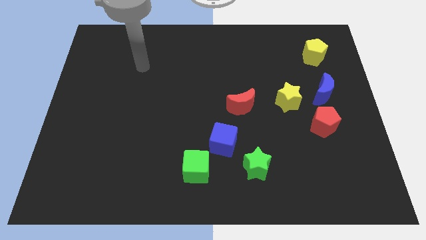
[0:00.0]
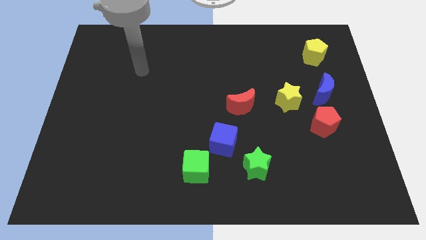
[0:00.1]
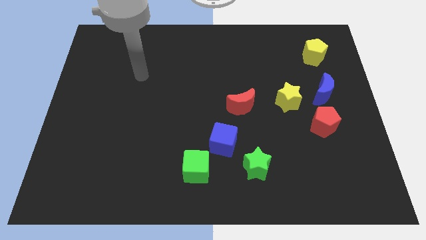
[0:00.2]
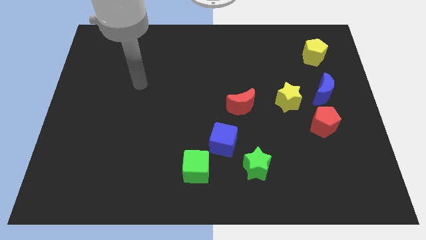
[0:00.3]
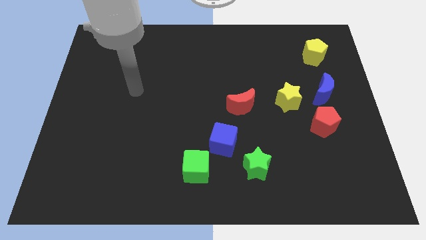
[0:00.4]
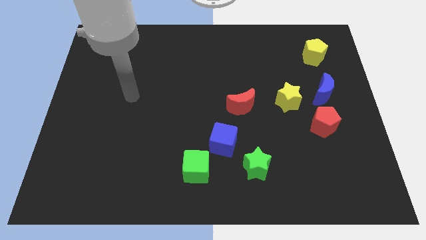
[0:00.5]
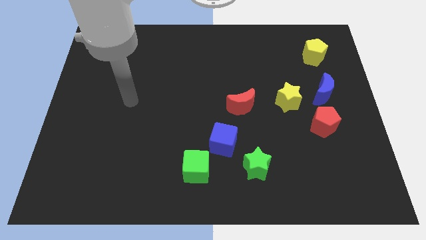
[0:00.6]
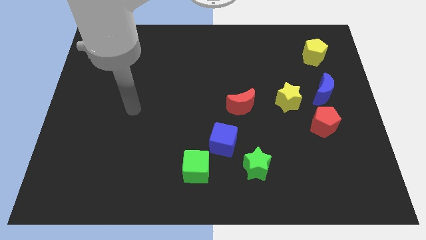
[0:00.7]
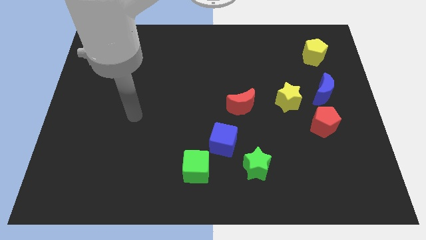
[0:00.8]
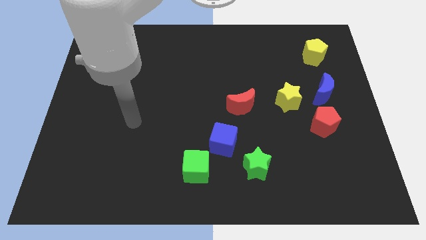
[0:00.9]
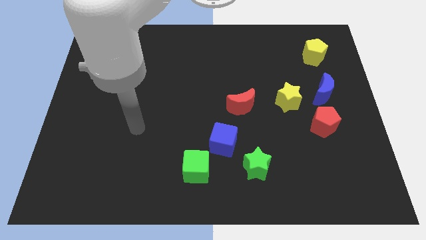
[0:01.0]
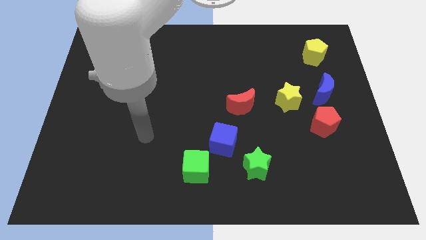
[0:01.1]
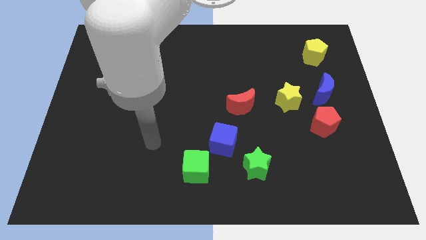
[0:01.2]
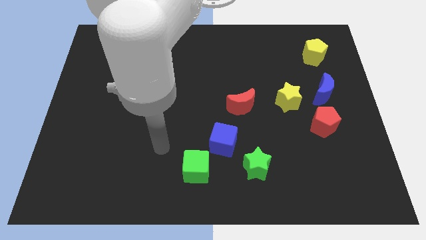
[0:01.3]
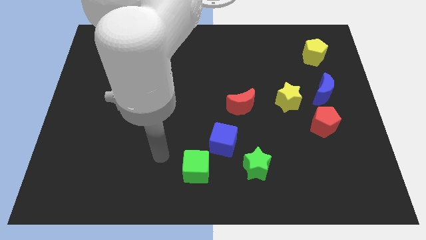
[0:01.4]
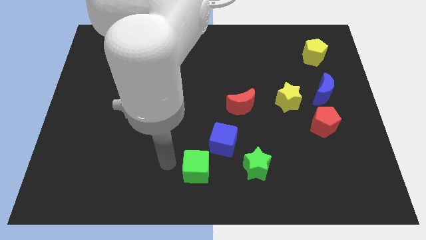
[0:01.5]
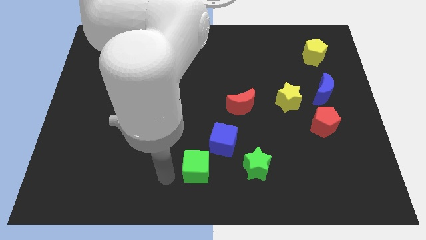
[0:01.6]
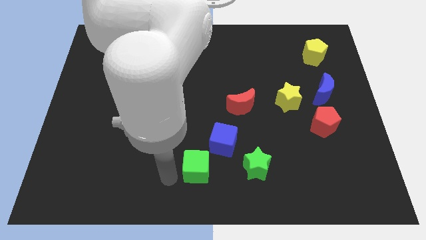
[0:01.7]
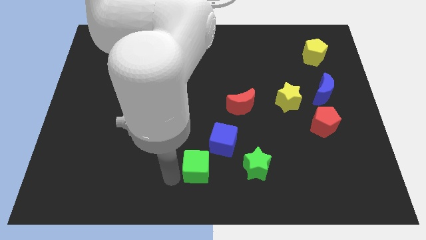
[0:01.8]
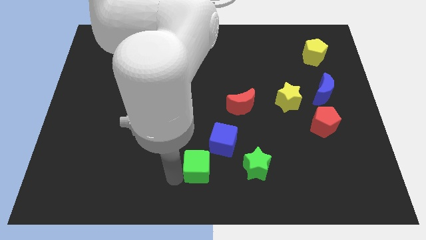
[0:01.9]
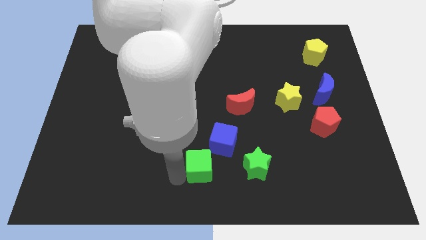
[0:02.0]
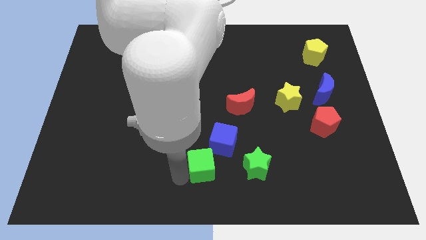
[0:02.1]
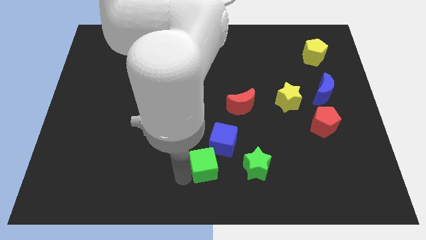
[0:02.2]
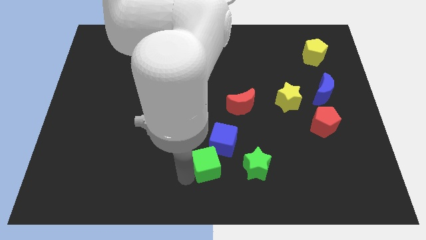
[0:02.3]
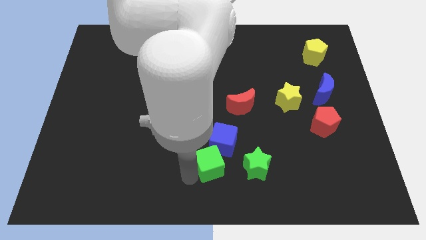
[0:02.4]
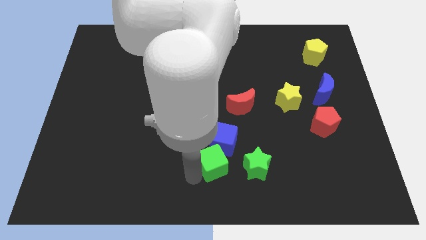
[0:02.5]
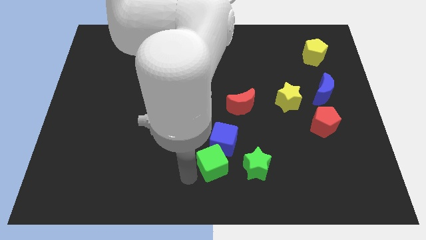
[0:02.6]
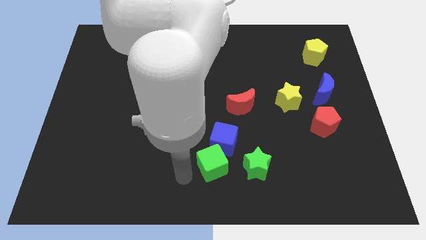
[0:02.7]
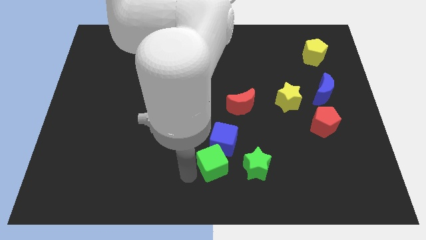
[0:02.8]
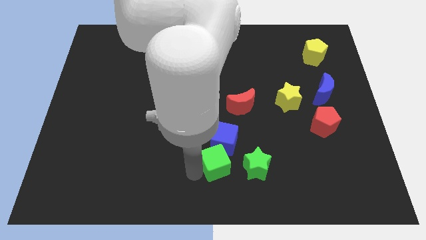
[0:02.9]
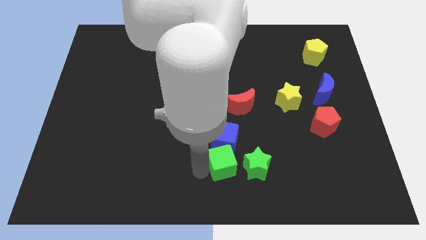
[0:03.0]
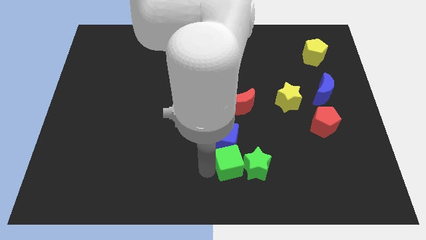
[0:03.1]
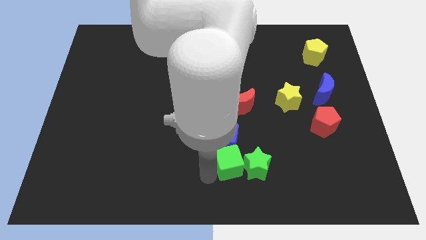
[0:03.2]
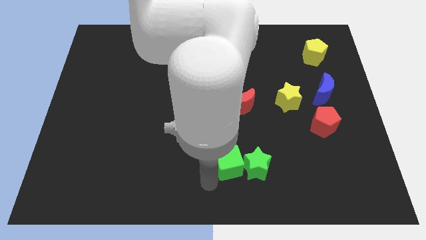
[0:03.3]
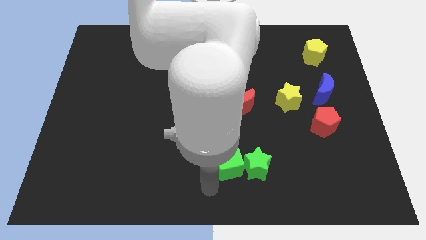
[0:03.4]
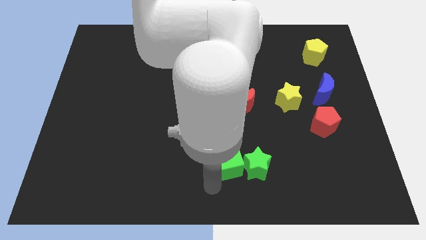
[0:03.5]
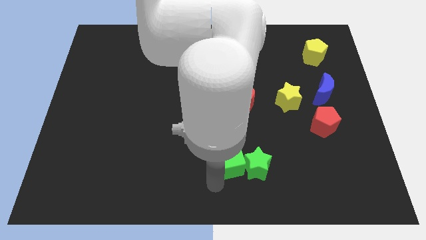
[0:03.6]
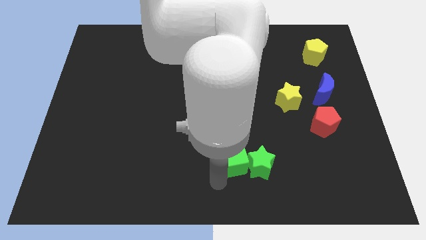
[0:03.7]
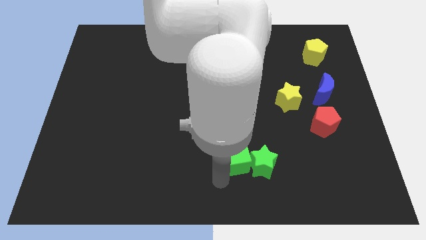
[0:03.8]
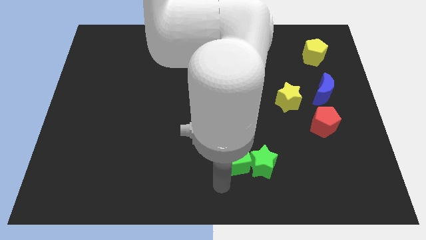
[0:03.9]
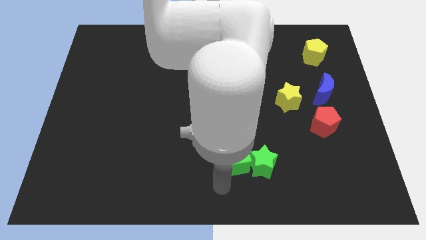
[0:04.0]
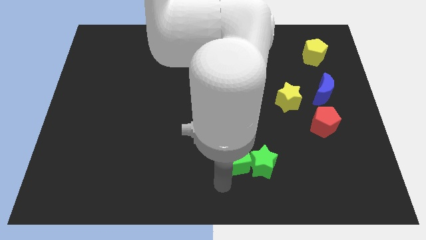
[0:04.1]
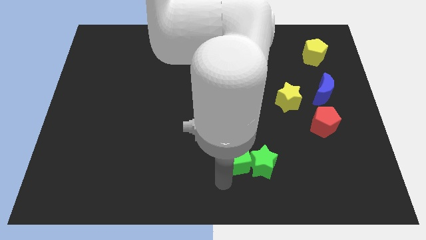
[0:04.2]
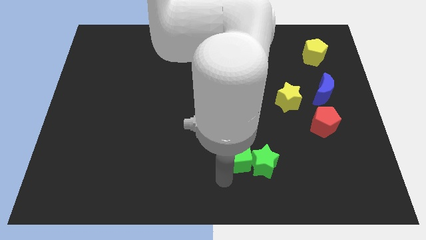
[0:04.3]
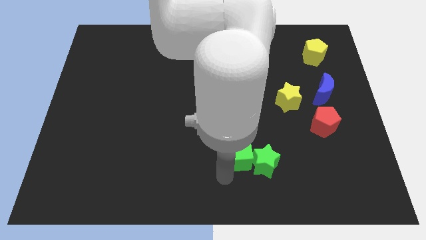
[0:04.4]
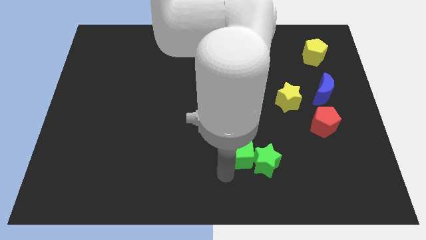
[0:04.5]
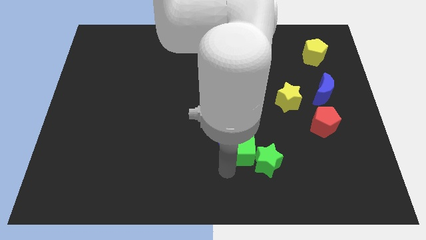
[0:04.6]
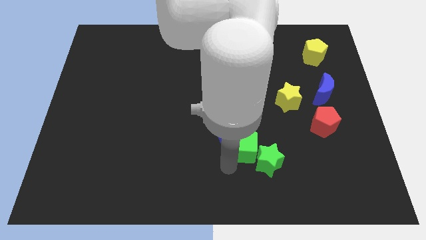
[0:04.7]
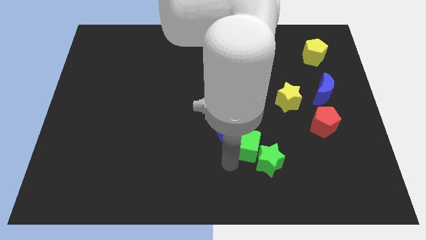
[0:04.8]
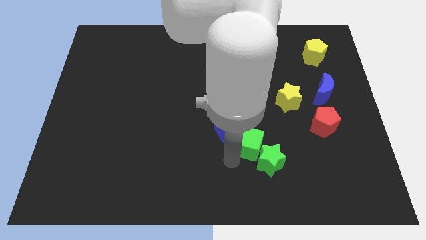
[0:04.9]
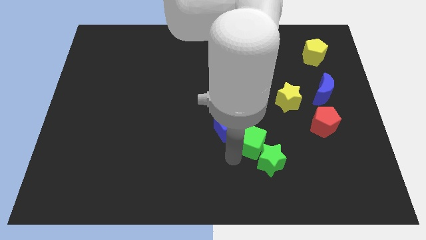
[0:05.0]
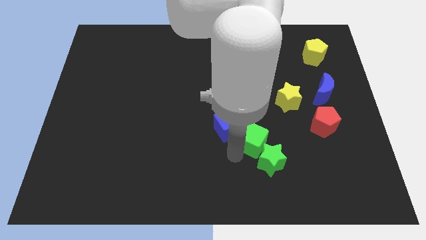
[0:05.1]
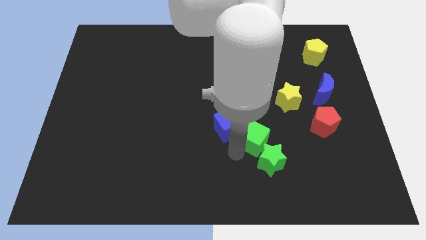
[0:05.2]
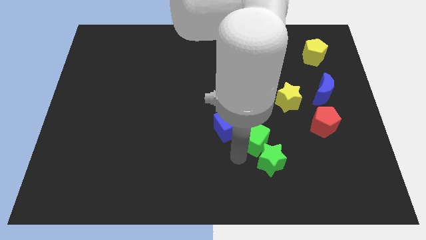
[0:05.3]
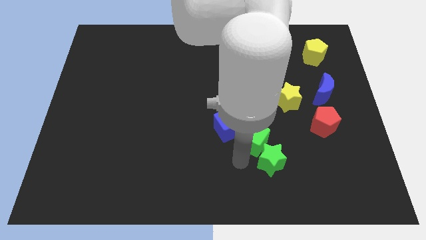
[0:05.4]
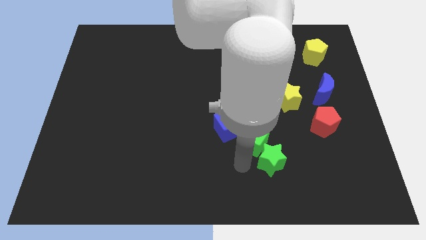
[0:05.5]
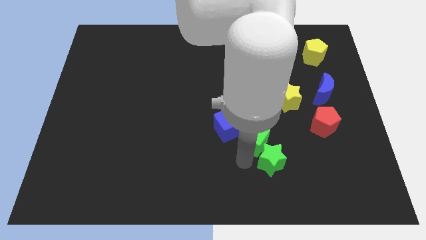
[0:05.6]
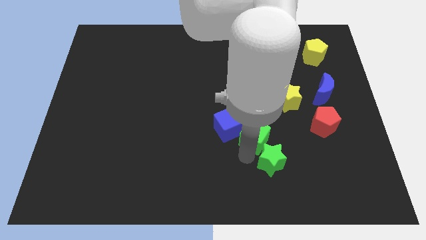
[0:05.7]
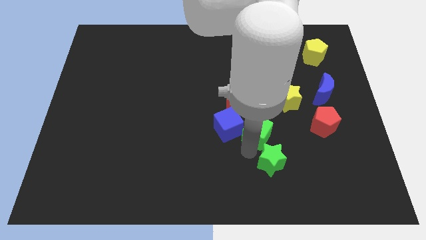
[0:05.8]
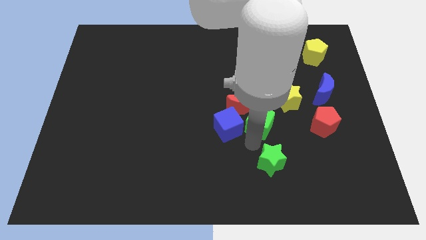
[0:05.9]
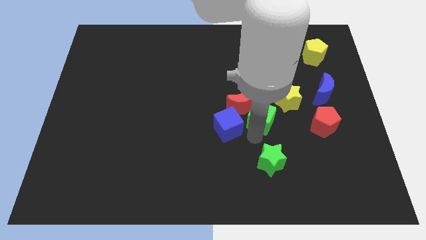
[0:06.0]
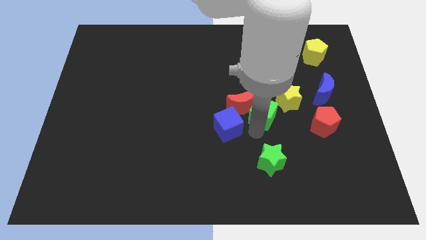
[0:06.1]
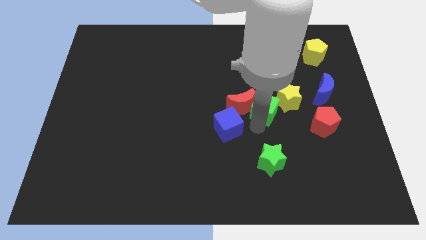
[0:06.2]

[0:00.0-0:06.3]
slide the green cube to the top right of the red moon

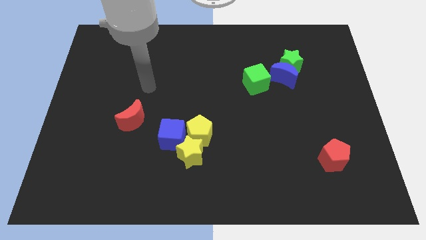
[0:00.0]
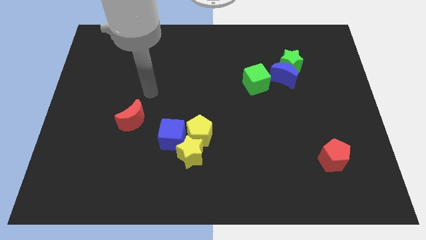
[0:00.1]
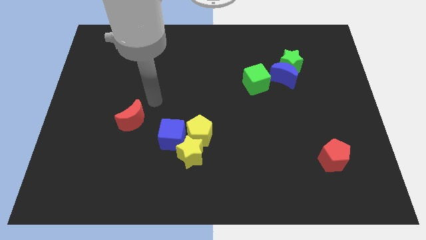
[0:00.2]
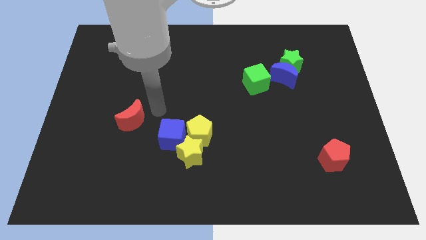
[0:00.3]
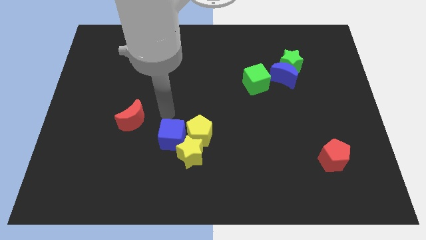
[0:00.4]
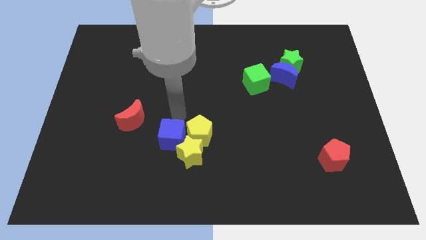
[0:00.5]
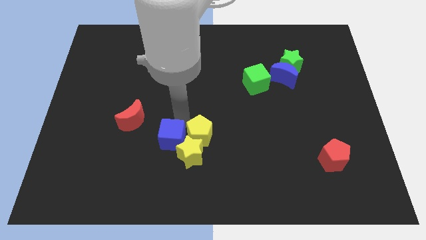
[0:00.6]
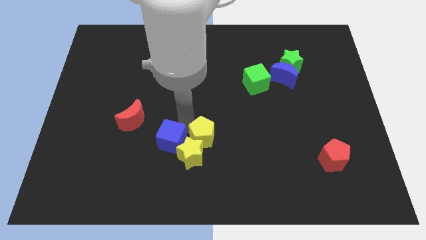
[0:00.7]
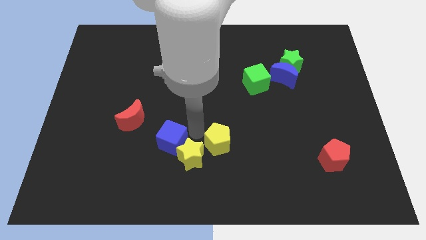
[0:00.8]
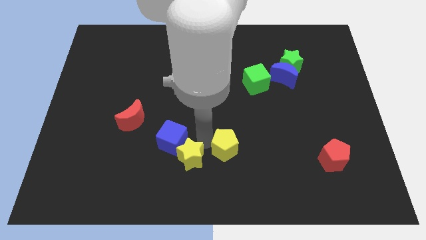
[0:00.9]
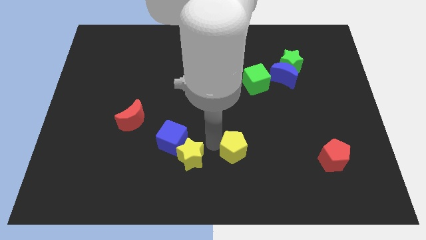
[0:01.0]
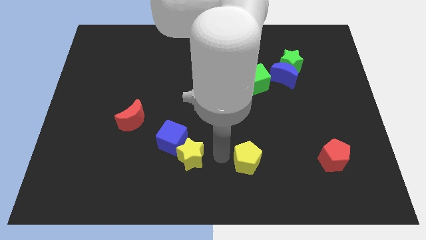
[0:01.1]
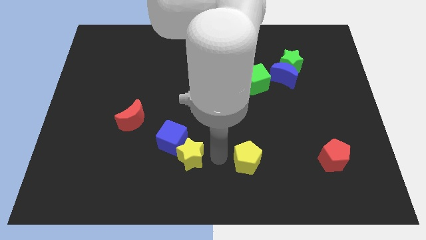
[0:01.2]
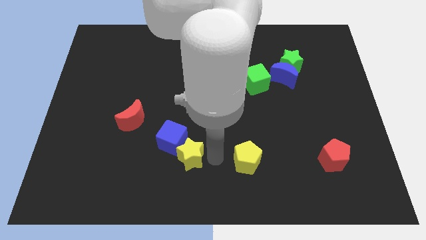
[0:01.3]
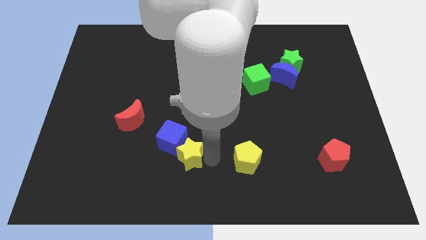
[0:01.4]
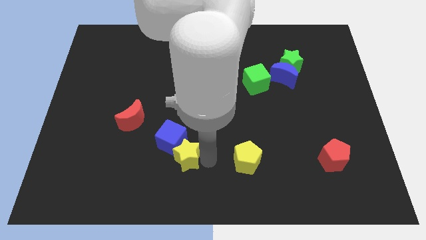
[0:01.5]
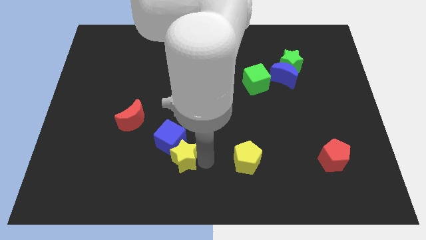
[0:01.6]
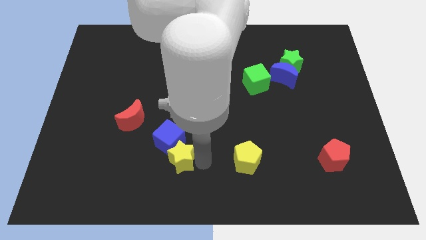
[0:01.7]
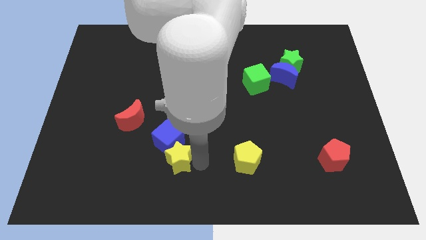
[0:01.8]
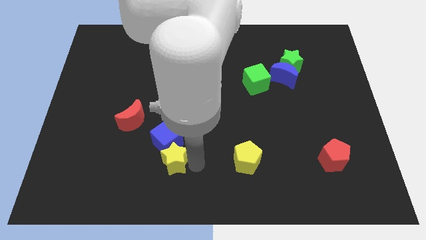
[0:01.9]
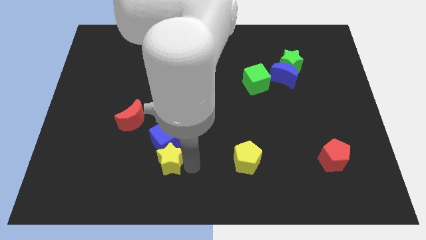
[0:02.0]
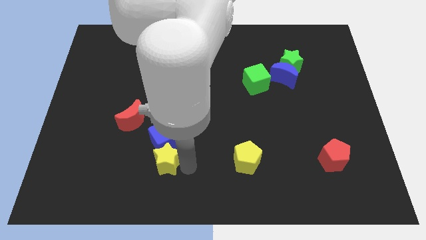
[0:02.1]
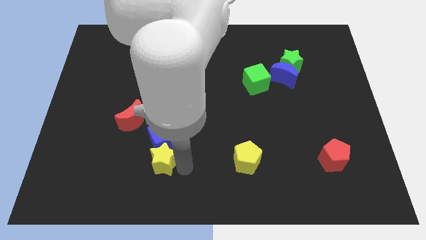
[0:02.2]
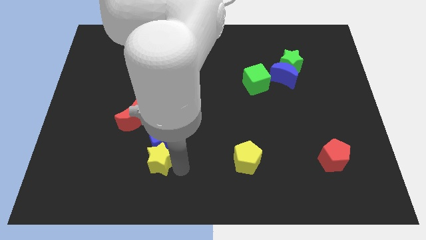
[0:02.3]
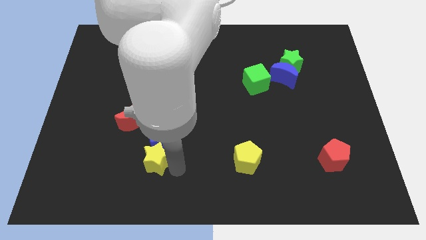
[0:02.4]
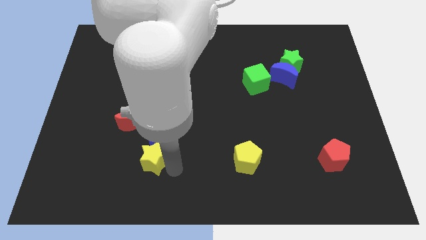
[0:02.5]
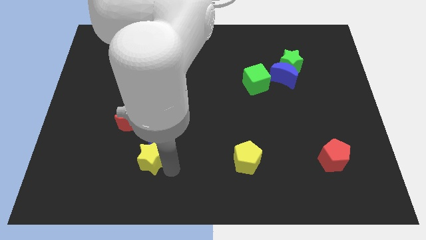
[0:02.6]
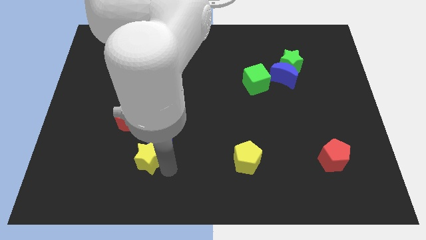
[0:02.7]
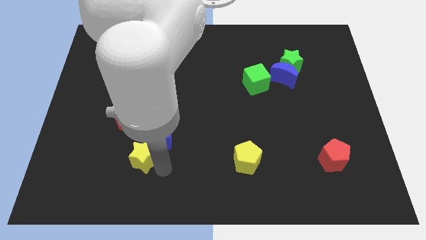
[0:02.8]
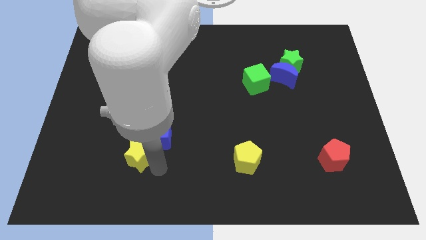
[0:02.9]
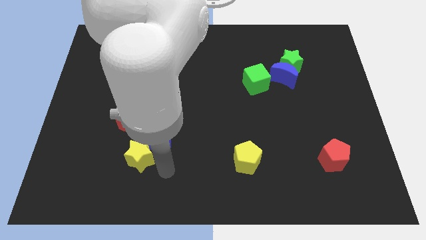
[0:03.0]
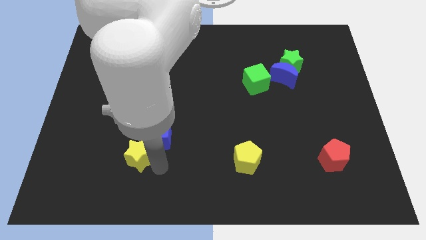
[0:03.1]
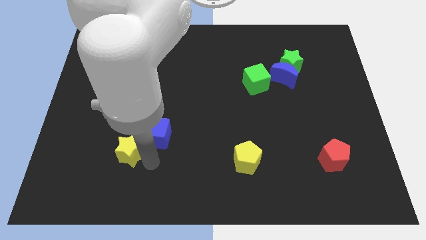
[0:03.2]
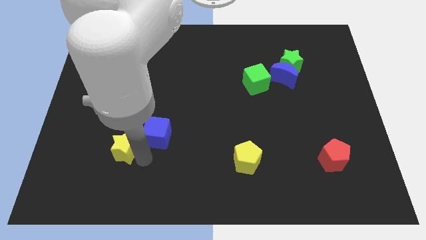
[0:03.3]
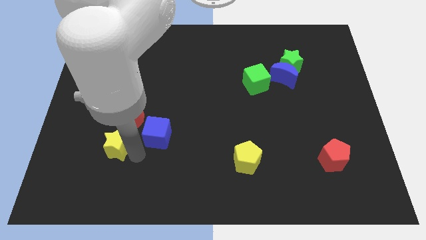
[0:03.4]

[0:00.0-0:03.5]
slide the yellow star to the bottom left side of the red moon
